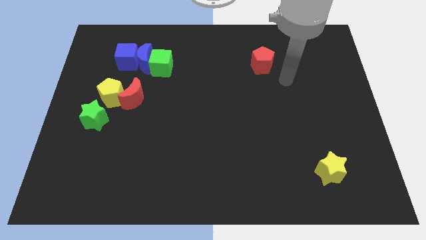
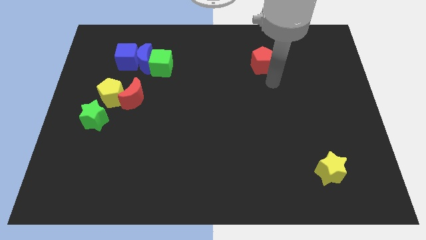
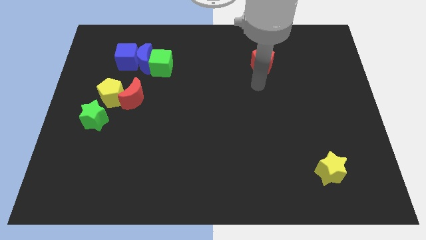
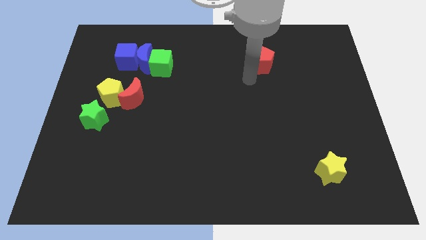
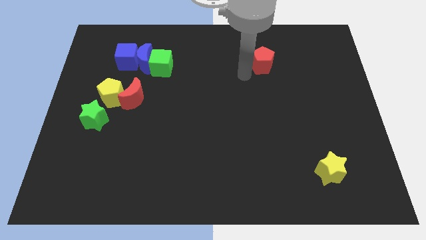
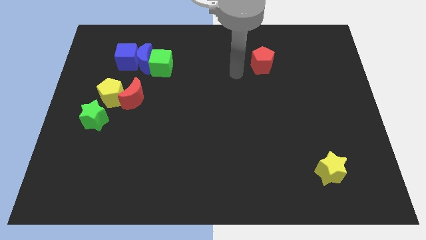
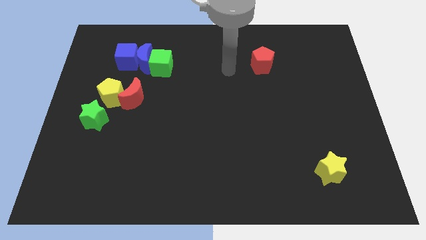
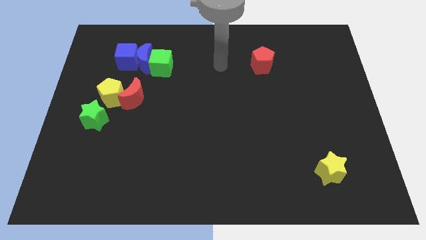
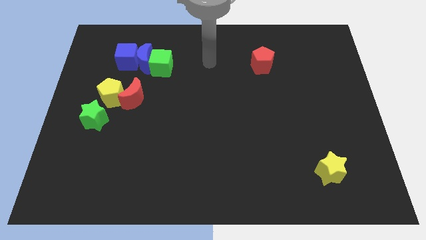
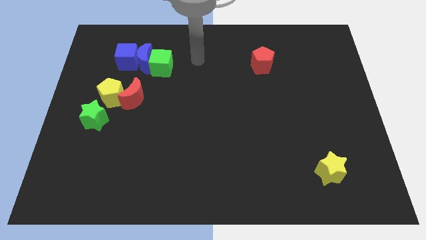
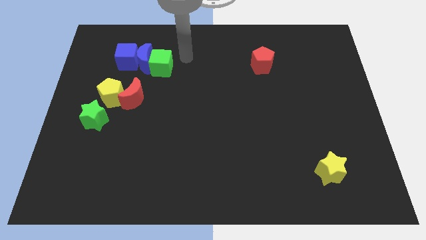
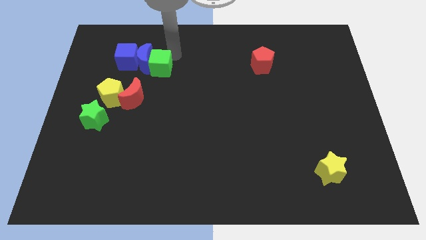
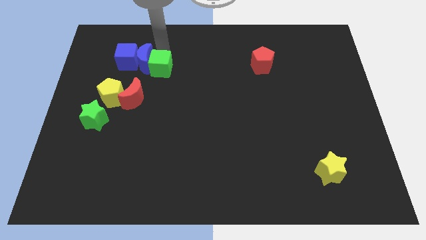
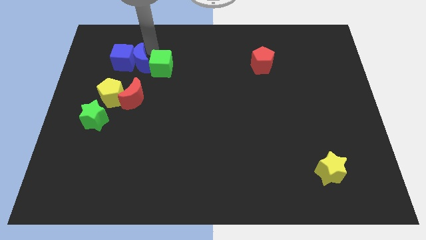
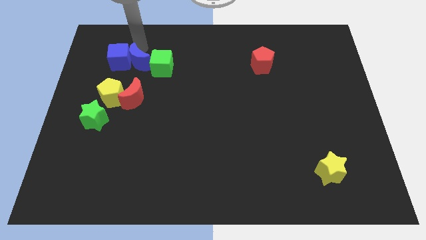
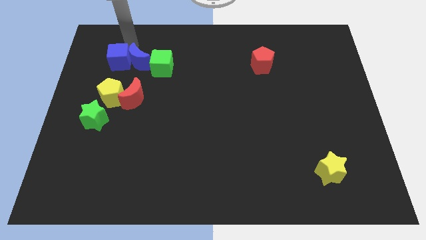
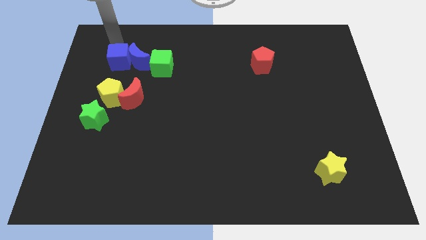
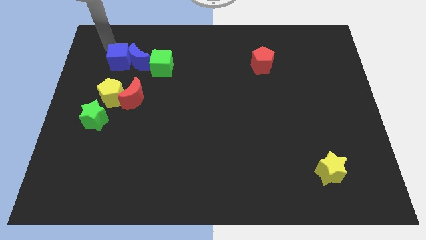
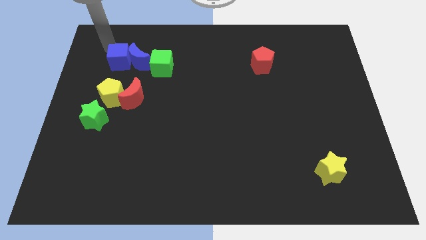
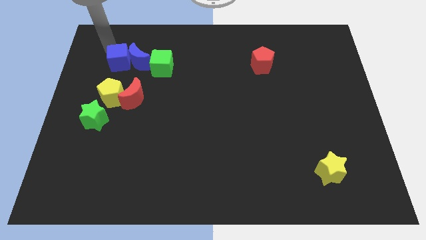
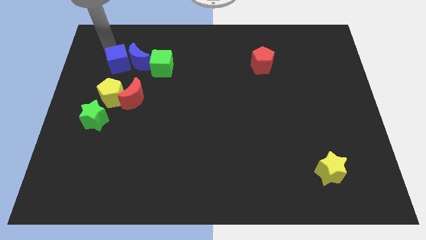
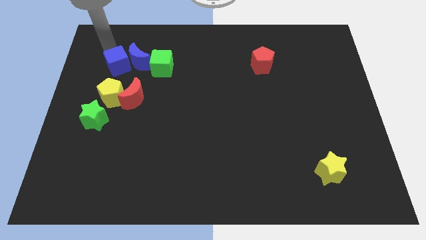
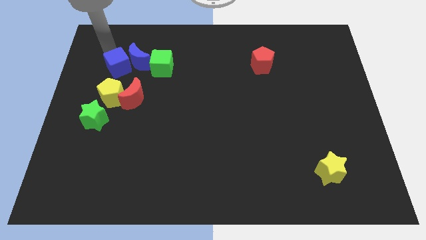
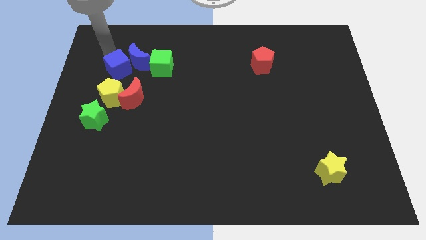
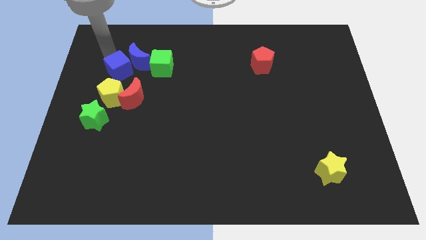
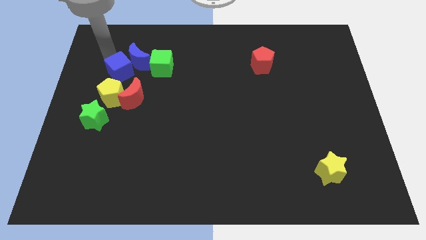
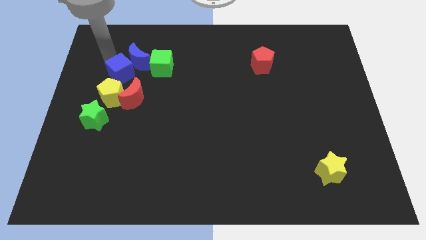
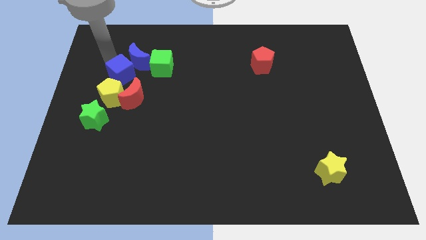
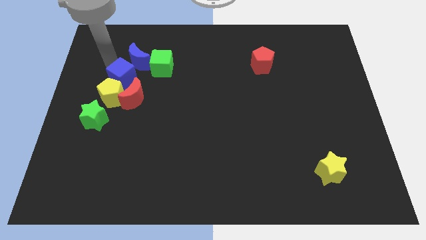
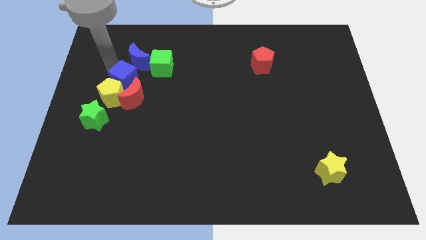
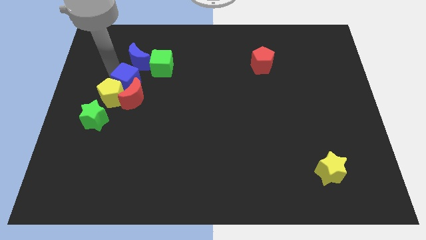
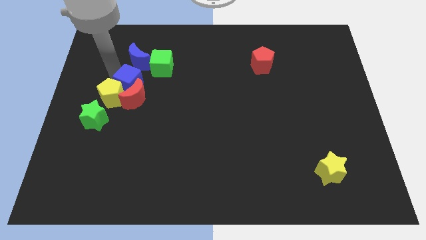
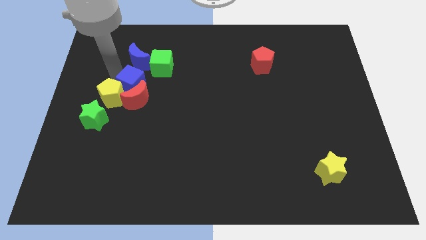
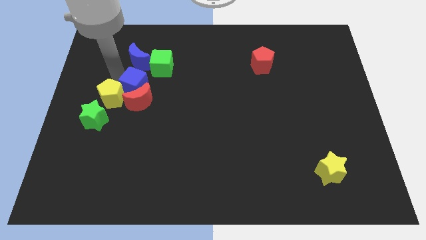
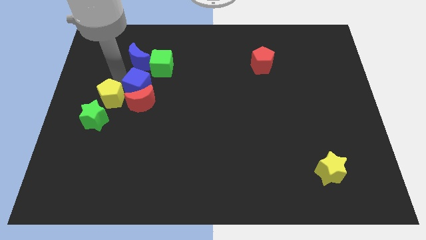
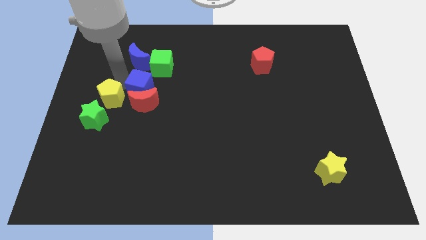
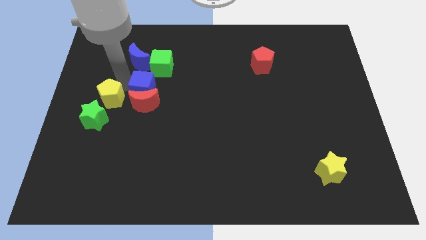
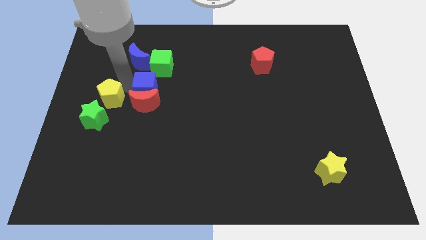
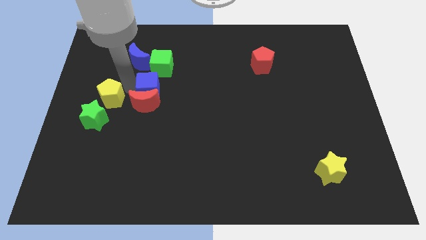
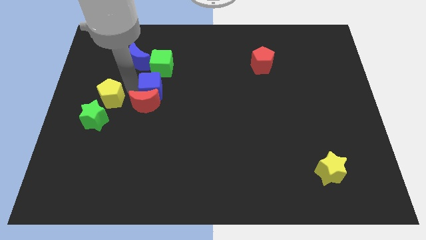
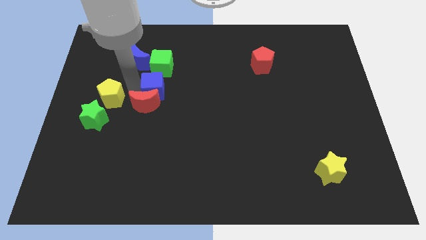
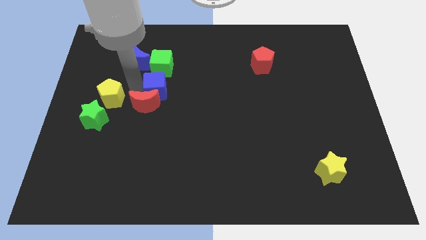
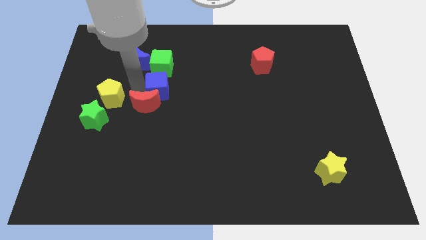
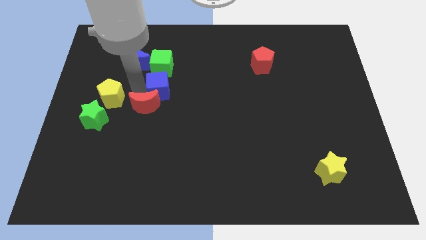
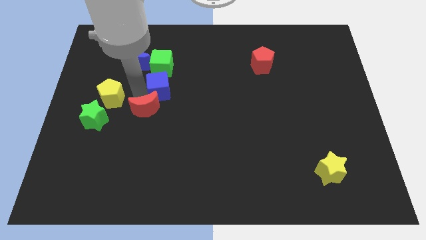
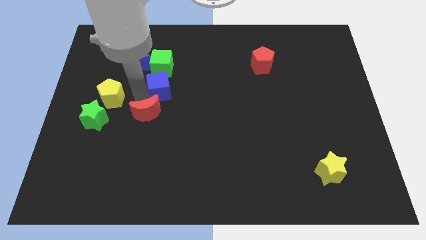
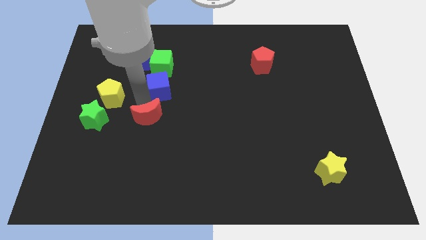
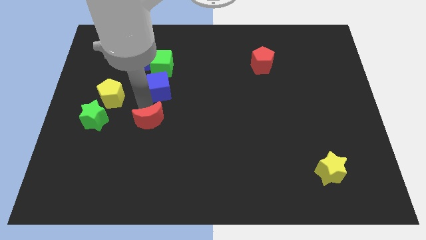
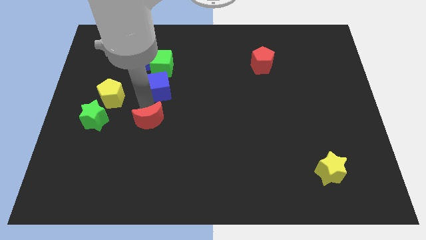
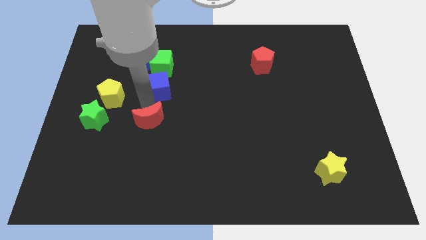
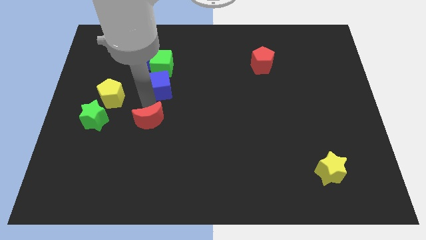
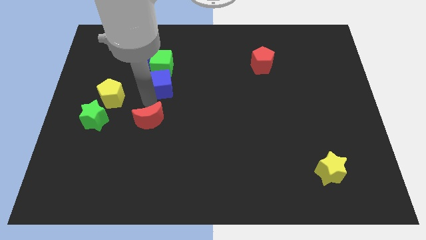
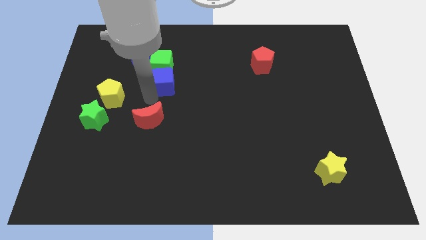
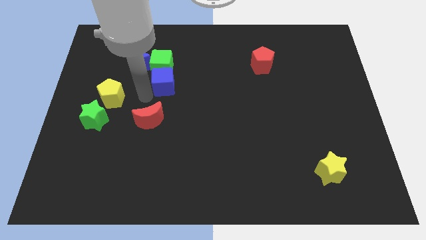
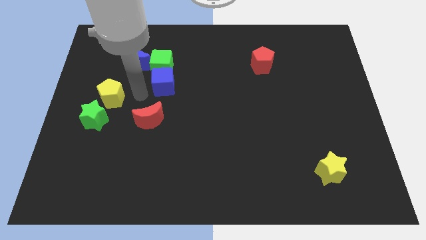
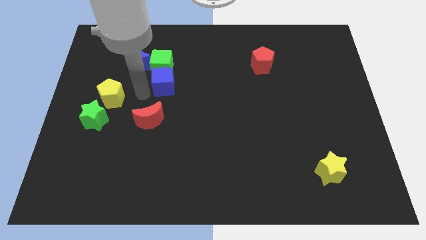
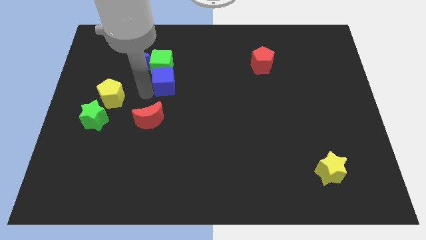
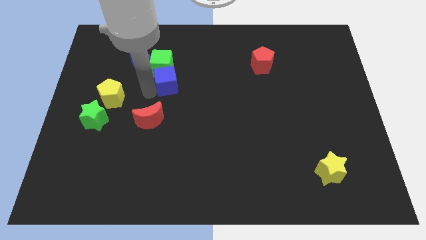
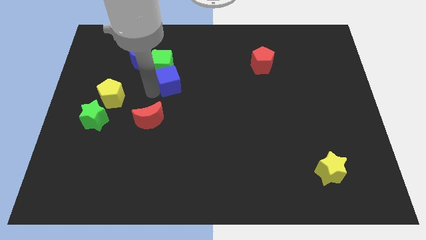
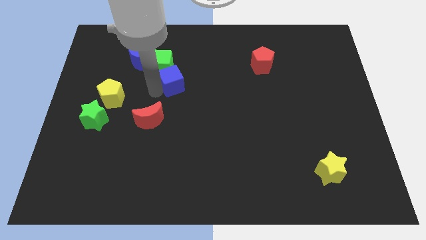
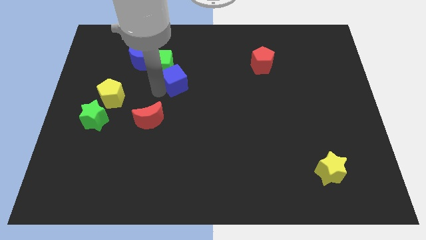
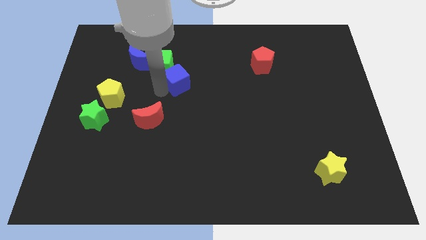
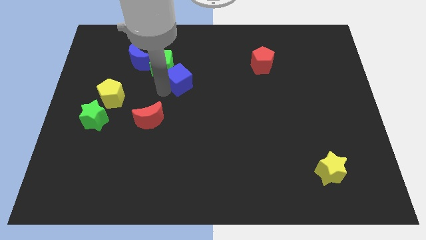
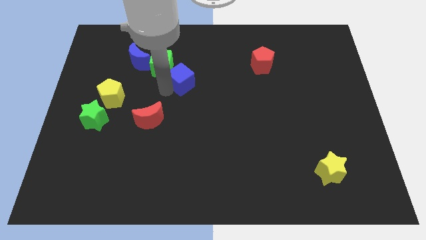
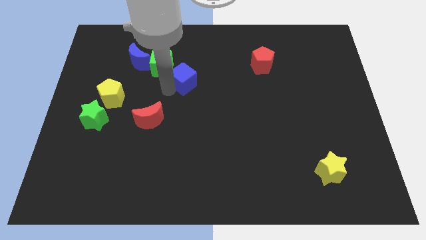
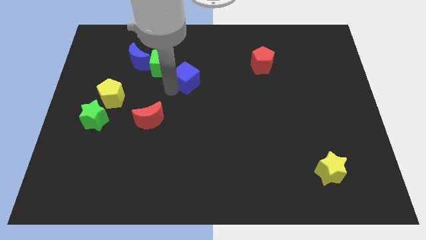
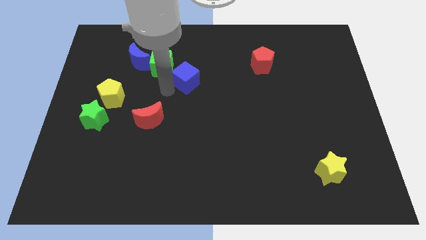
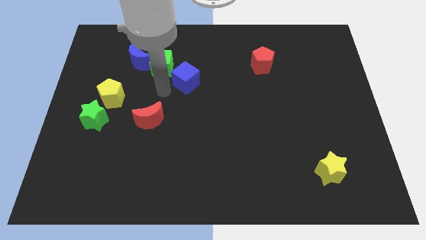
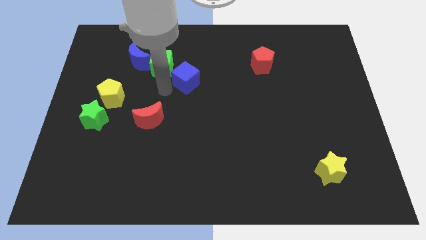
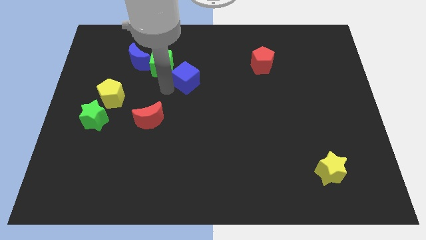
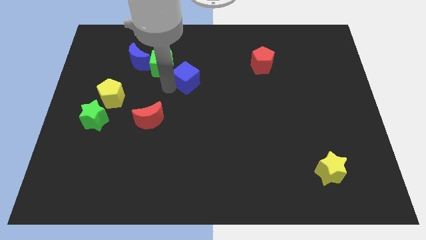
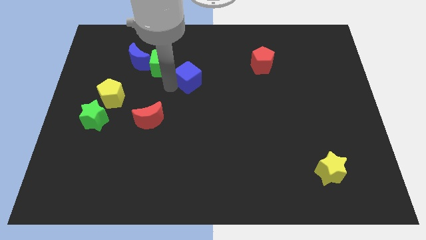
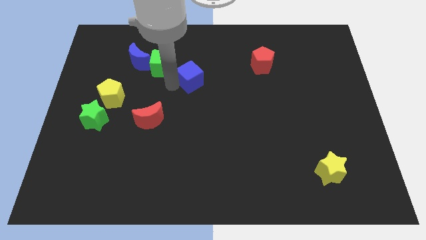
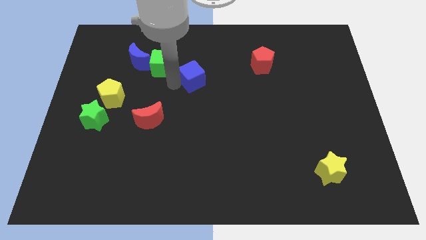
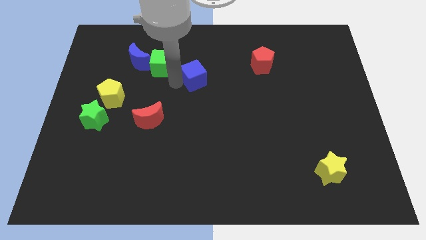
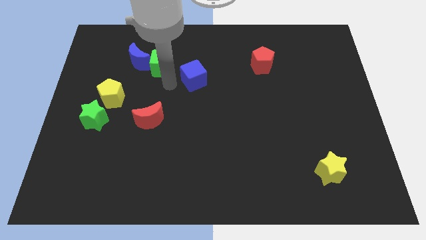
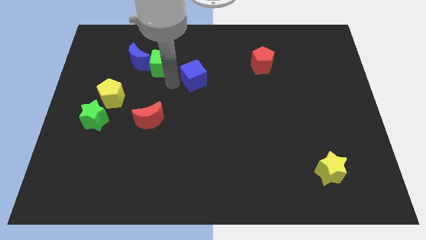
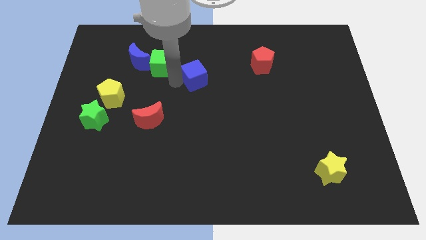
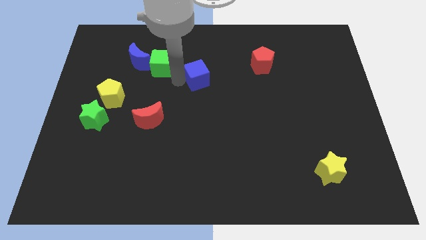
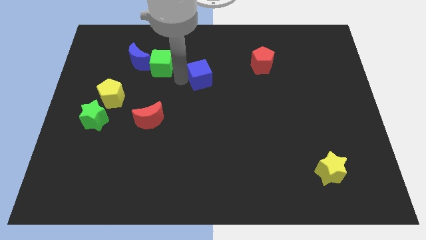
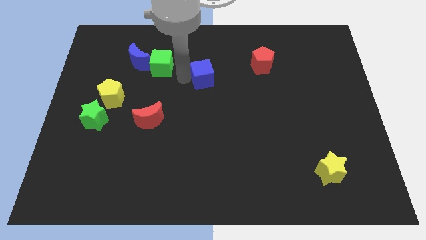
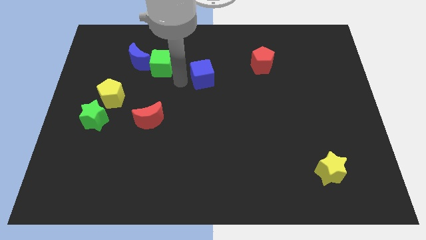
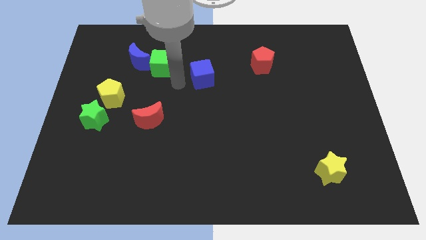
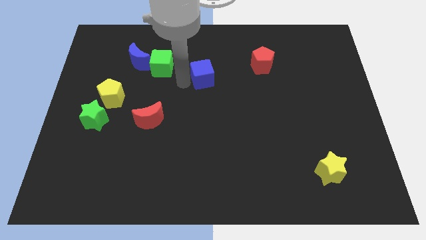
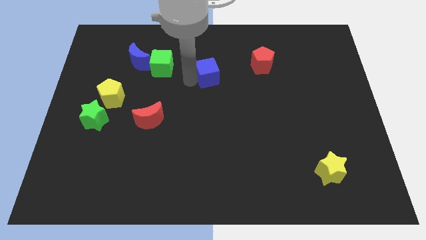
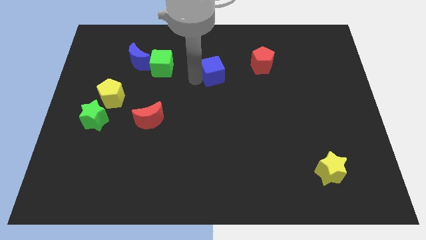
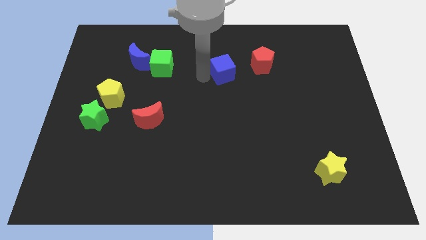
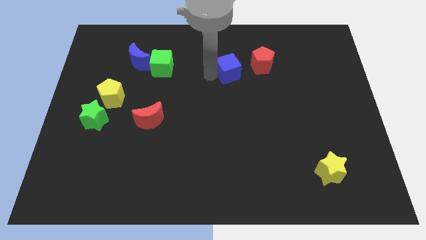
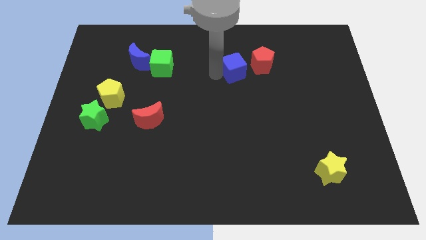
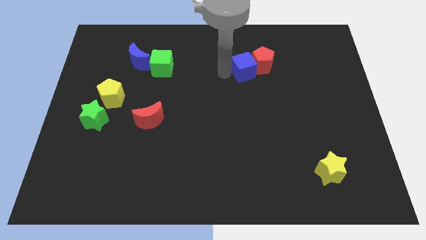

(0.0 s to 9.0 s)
push the blue cube next to the red pentagon
